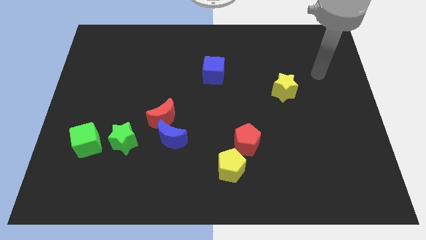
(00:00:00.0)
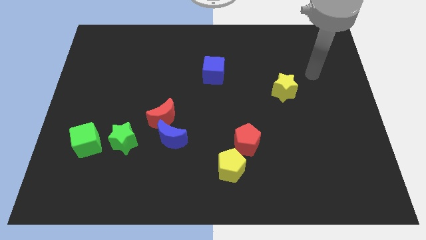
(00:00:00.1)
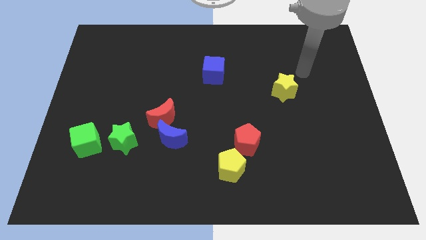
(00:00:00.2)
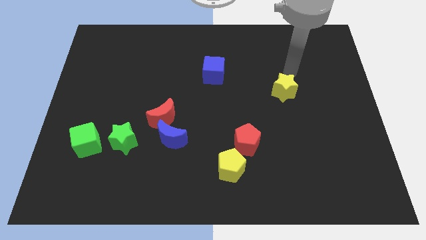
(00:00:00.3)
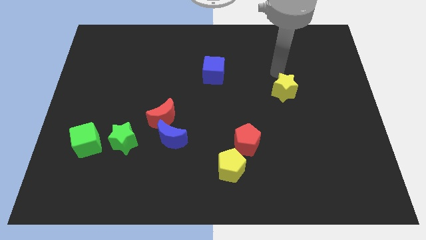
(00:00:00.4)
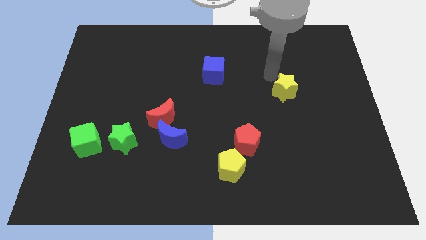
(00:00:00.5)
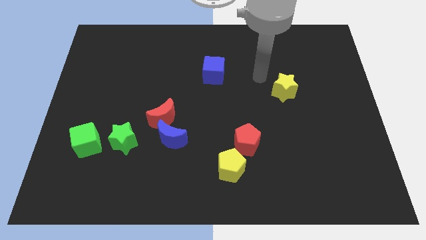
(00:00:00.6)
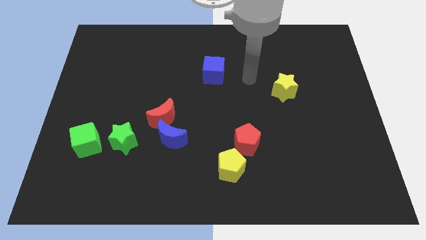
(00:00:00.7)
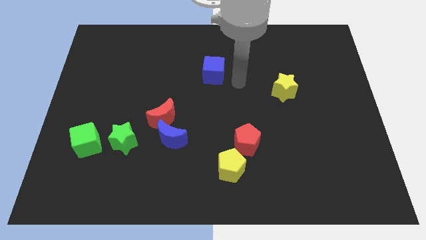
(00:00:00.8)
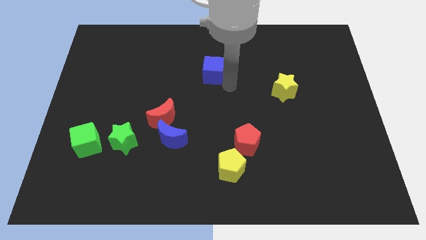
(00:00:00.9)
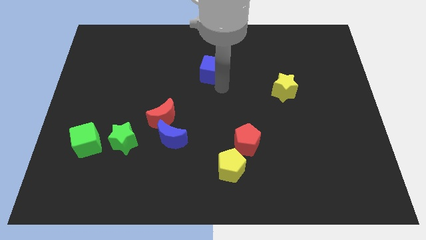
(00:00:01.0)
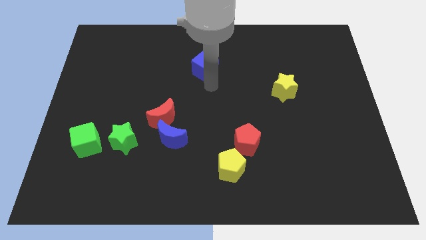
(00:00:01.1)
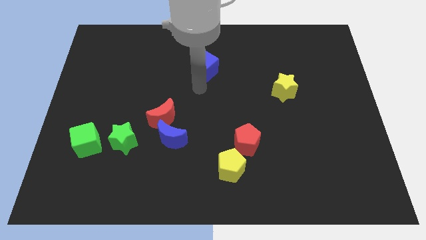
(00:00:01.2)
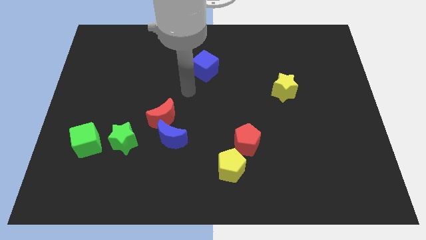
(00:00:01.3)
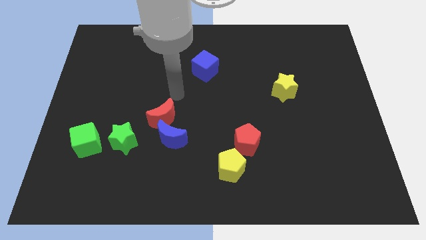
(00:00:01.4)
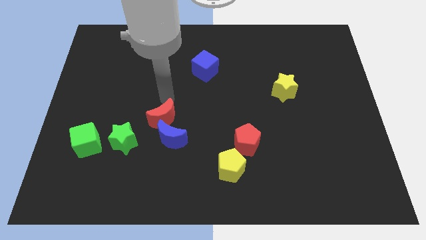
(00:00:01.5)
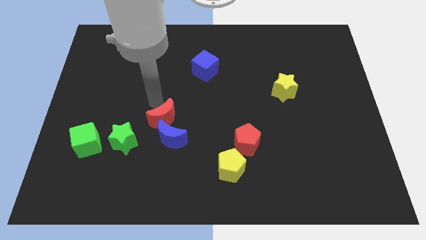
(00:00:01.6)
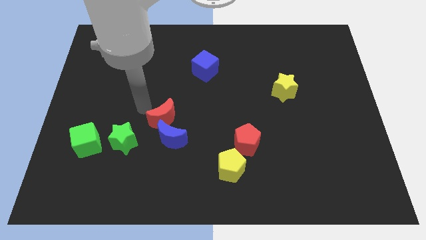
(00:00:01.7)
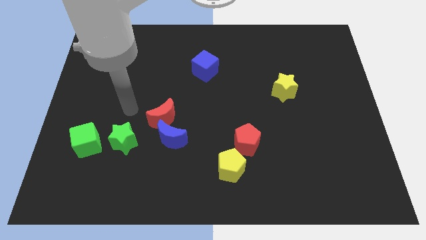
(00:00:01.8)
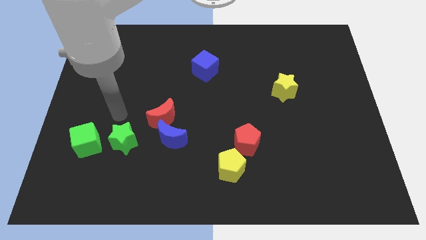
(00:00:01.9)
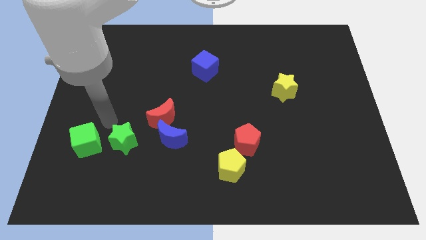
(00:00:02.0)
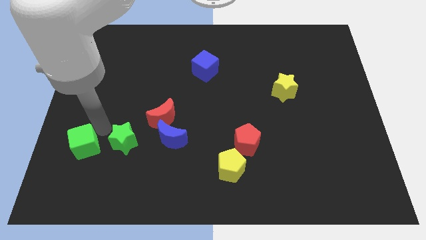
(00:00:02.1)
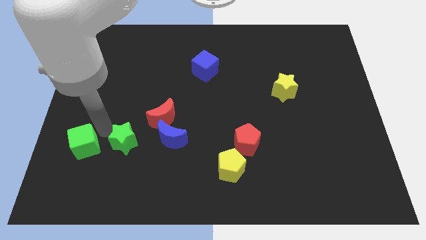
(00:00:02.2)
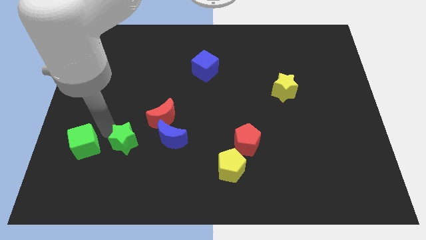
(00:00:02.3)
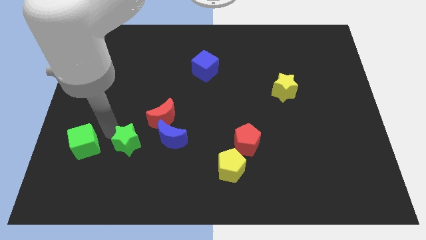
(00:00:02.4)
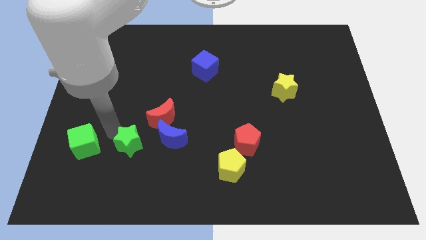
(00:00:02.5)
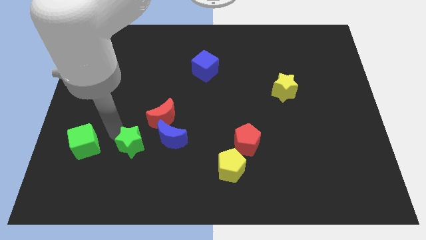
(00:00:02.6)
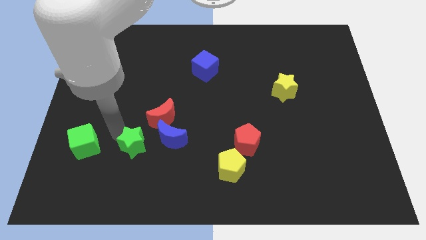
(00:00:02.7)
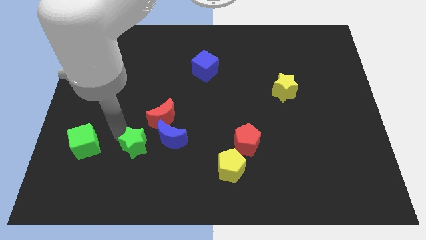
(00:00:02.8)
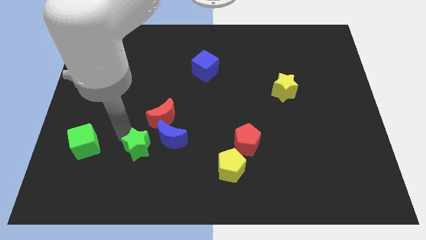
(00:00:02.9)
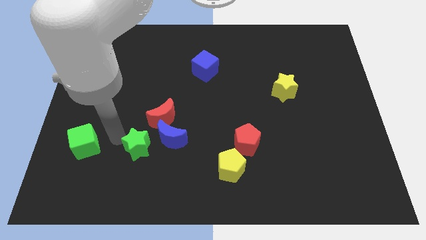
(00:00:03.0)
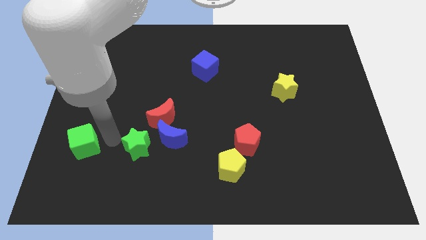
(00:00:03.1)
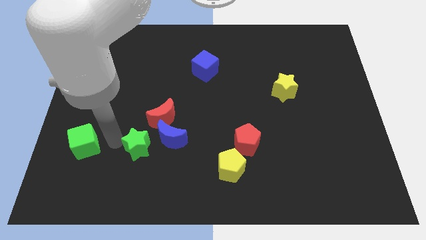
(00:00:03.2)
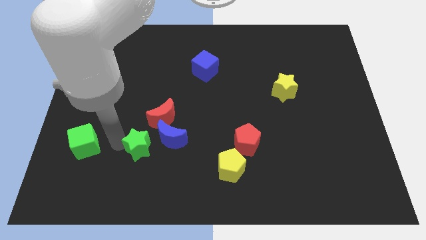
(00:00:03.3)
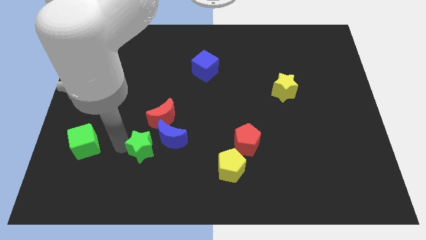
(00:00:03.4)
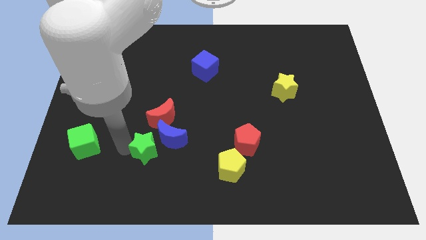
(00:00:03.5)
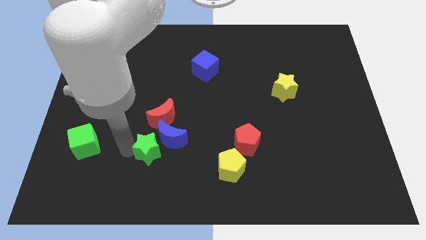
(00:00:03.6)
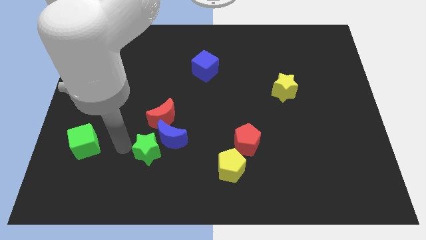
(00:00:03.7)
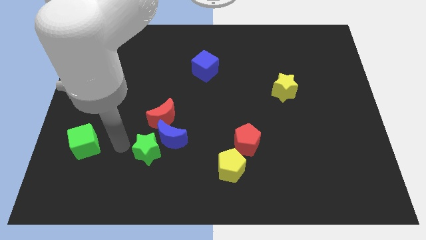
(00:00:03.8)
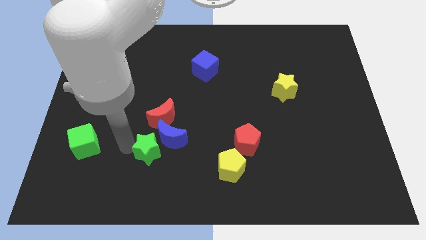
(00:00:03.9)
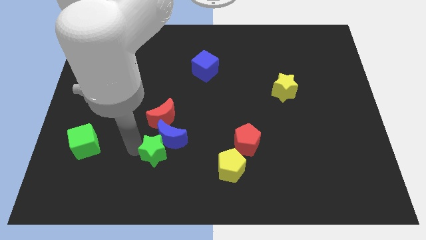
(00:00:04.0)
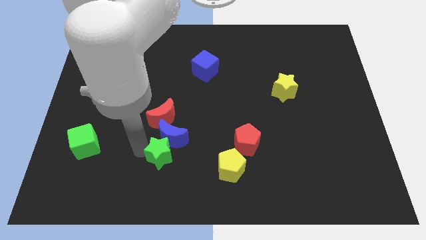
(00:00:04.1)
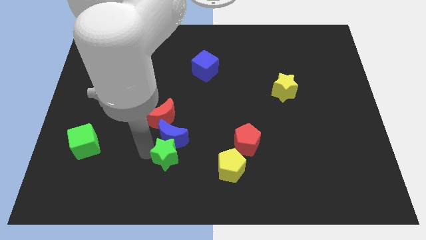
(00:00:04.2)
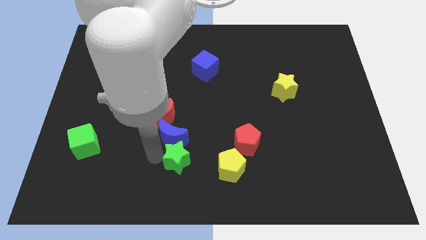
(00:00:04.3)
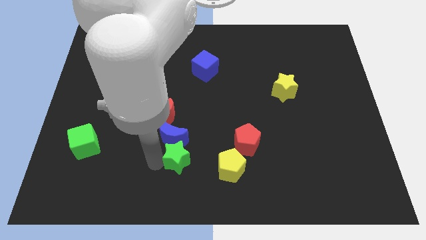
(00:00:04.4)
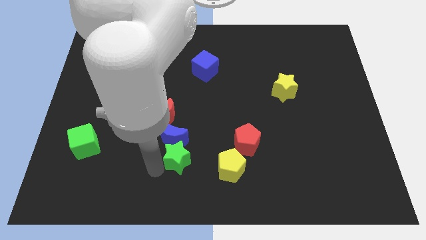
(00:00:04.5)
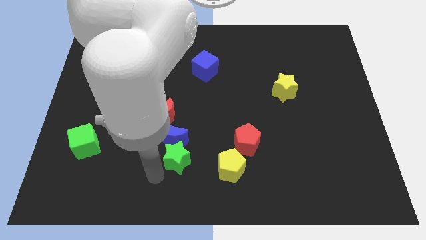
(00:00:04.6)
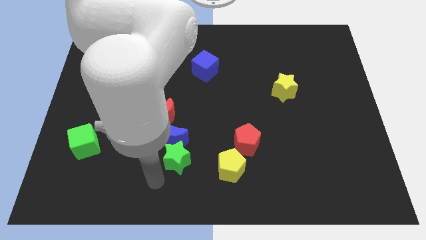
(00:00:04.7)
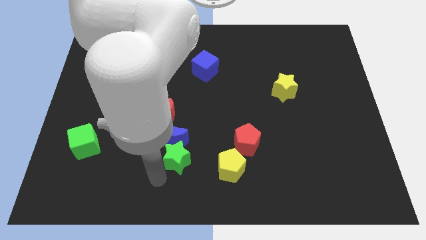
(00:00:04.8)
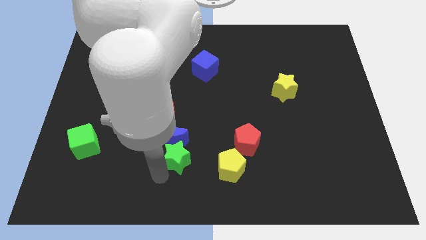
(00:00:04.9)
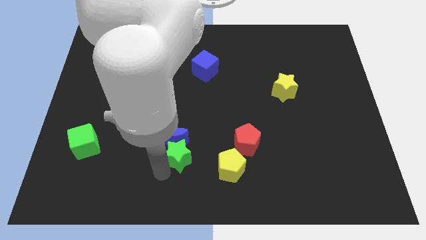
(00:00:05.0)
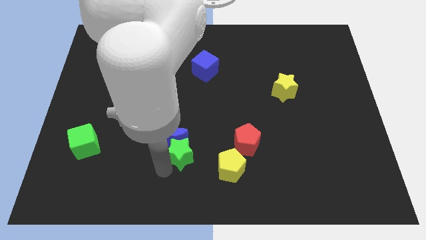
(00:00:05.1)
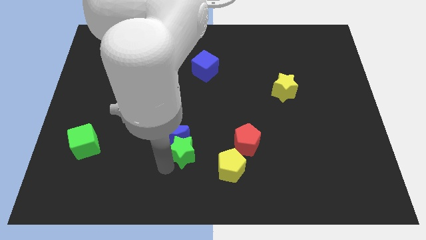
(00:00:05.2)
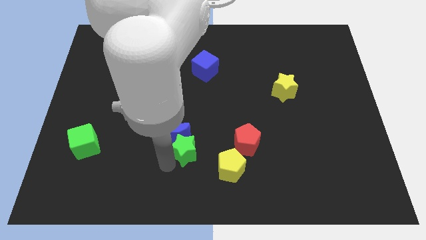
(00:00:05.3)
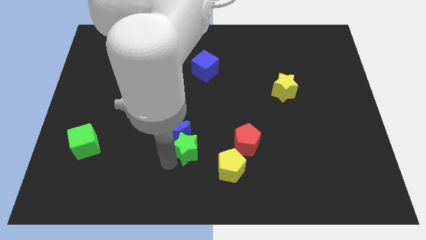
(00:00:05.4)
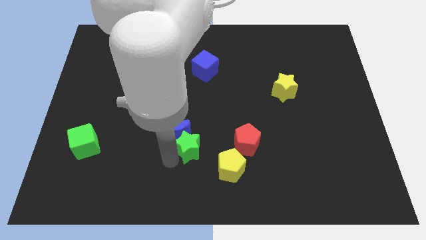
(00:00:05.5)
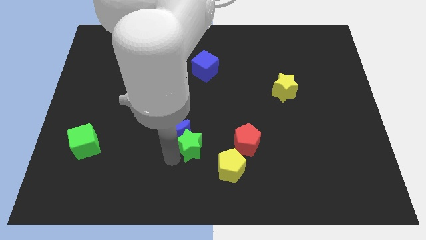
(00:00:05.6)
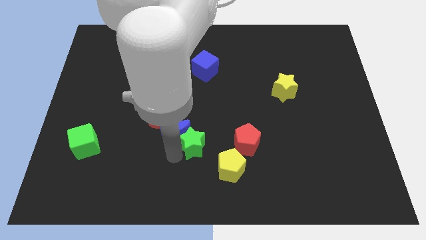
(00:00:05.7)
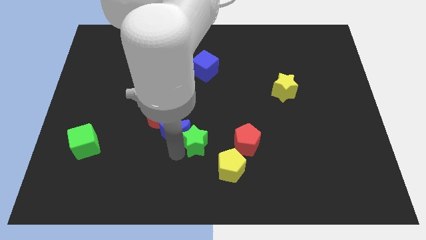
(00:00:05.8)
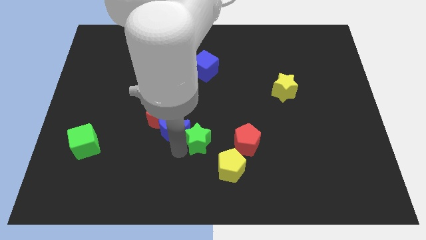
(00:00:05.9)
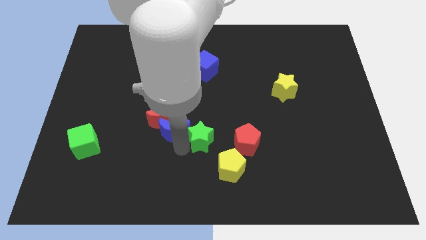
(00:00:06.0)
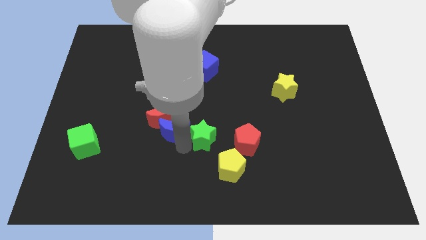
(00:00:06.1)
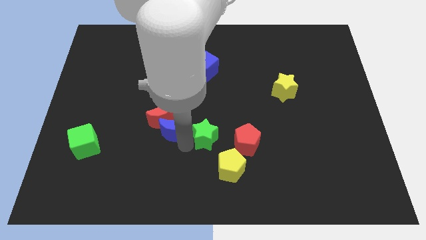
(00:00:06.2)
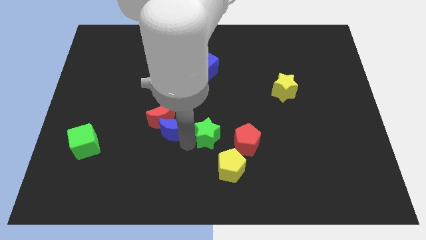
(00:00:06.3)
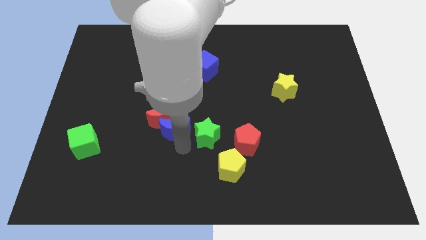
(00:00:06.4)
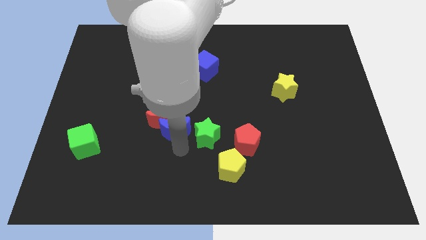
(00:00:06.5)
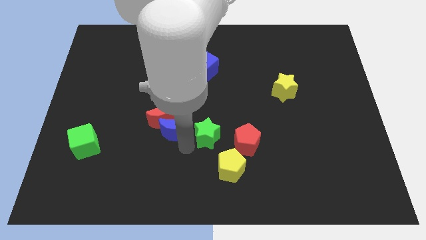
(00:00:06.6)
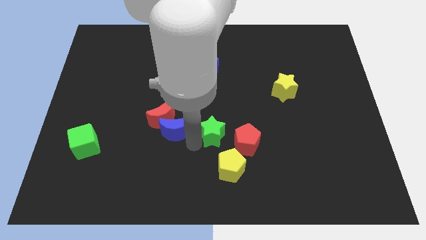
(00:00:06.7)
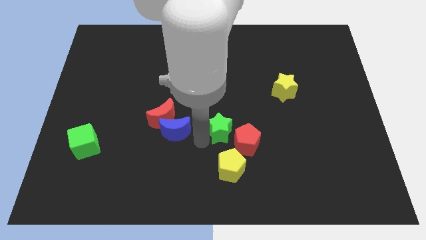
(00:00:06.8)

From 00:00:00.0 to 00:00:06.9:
push the green star to the right

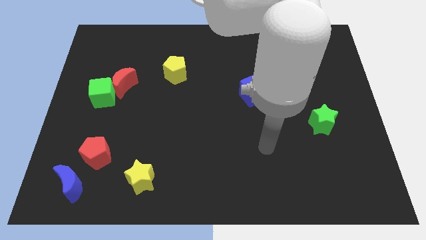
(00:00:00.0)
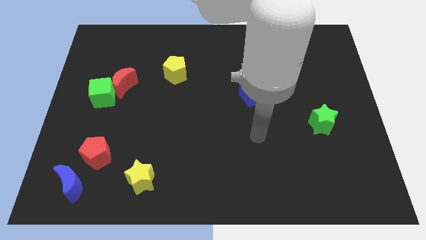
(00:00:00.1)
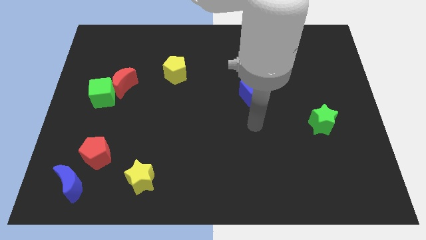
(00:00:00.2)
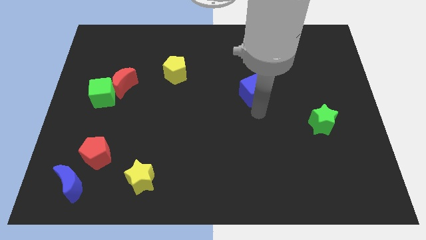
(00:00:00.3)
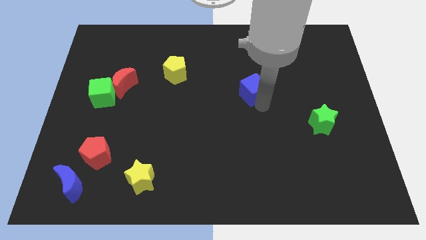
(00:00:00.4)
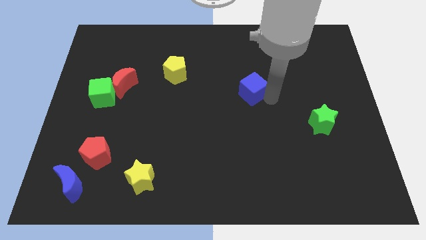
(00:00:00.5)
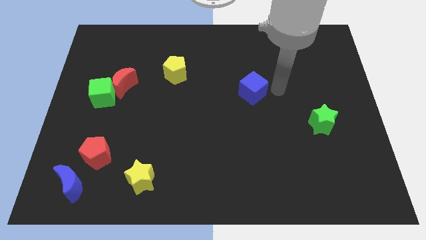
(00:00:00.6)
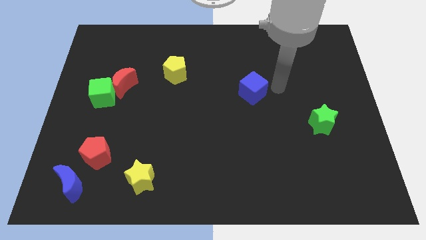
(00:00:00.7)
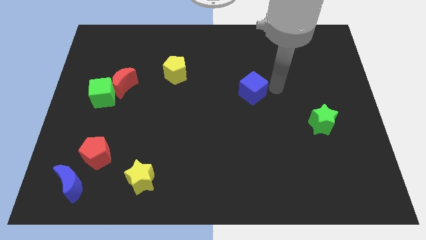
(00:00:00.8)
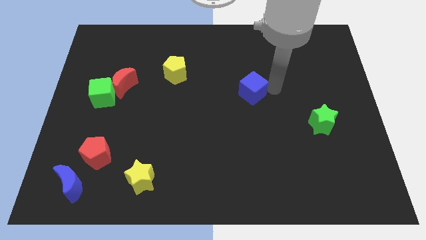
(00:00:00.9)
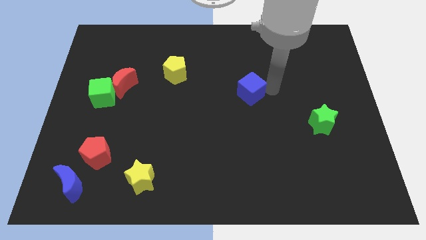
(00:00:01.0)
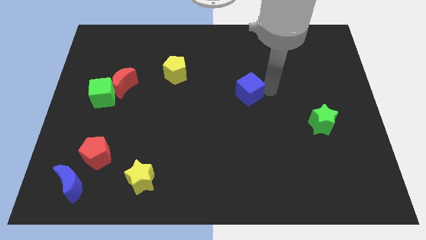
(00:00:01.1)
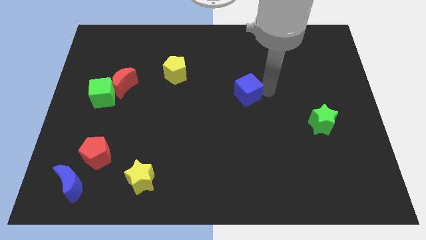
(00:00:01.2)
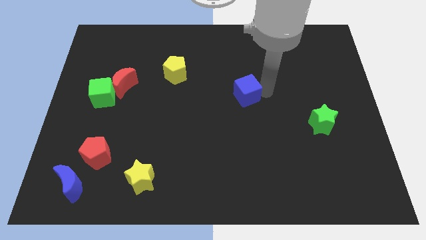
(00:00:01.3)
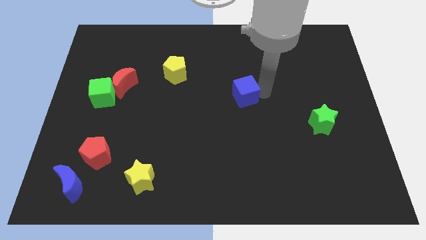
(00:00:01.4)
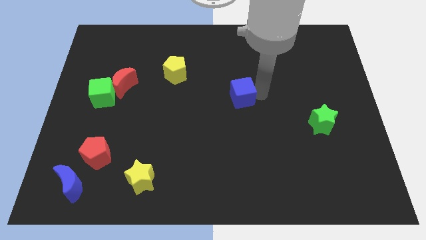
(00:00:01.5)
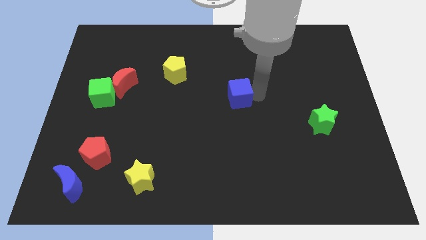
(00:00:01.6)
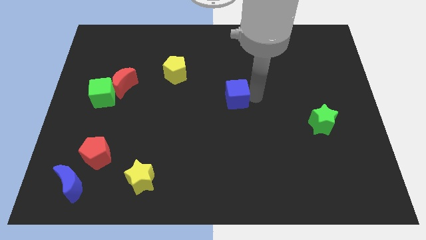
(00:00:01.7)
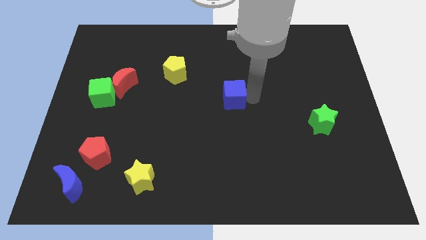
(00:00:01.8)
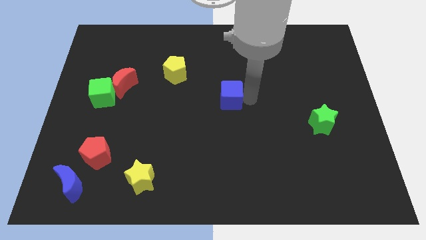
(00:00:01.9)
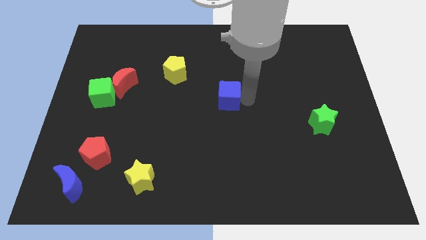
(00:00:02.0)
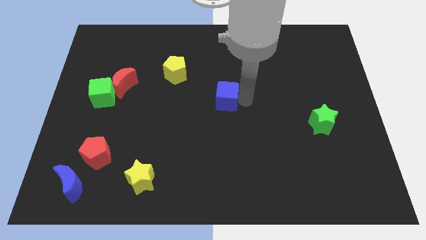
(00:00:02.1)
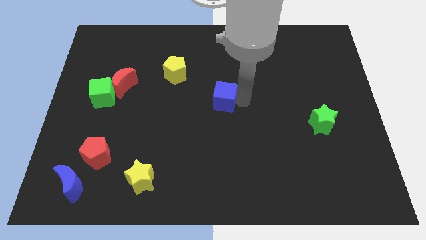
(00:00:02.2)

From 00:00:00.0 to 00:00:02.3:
slightly slide the blue cube to the left
